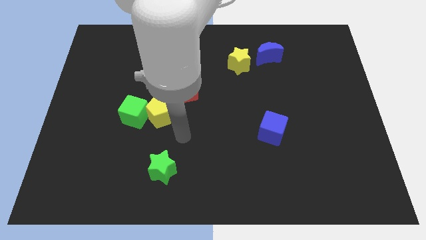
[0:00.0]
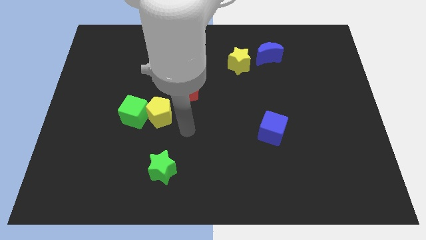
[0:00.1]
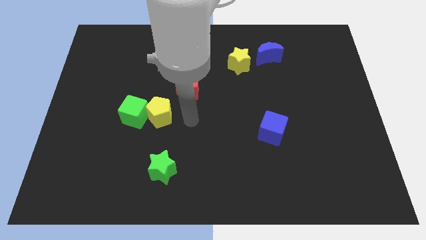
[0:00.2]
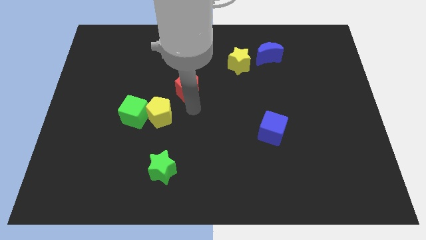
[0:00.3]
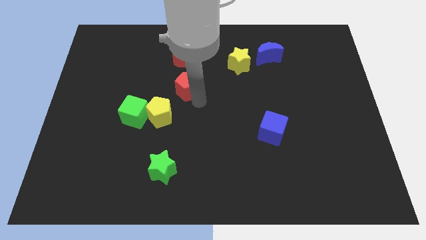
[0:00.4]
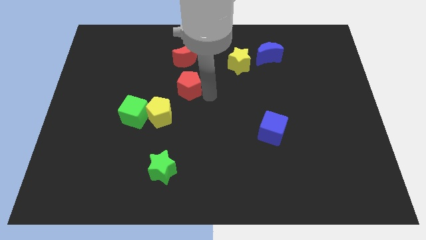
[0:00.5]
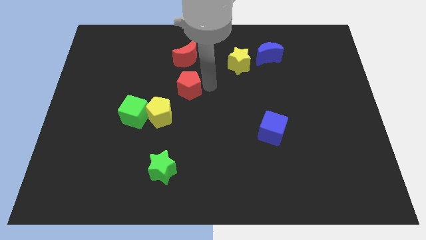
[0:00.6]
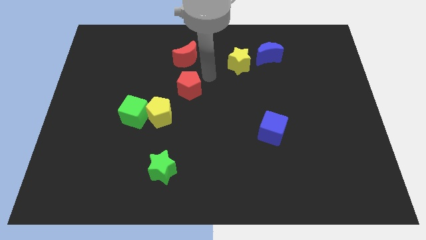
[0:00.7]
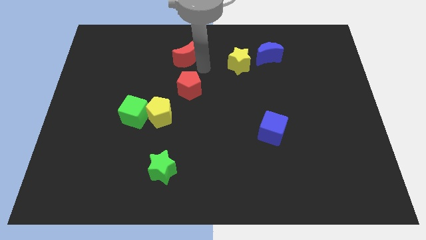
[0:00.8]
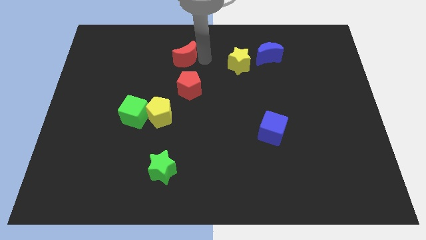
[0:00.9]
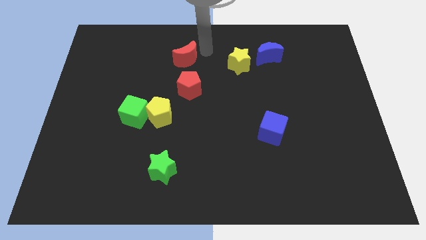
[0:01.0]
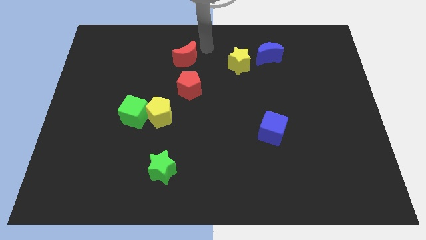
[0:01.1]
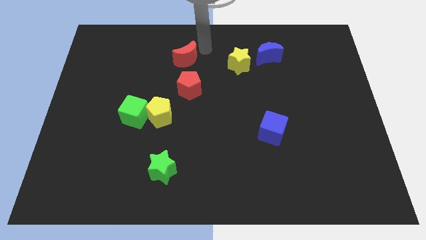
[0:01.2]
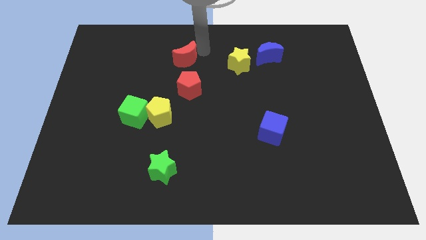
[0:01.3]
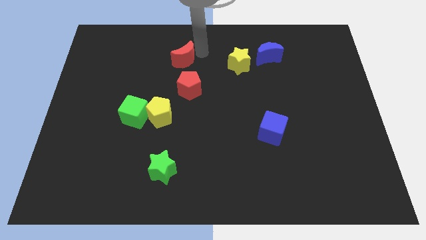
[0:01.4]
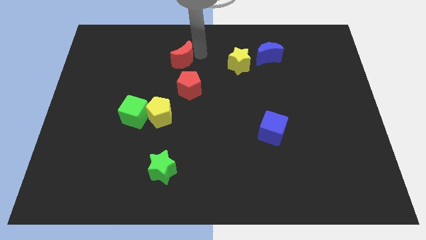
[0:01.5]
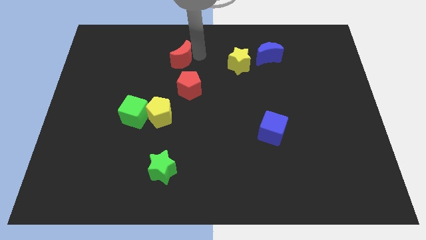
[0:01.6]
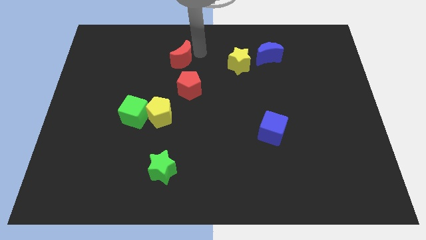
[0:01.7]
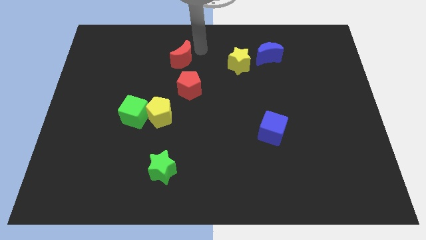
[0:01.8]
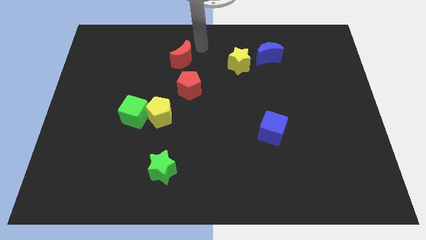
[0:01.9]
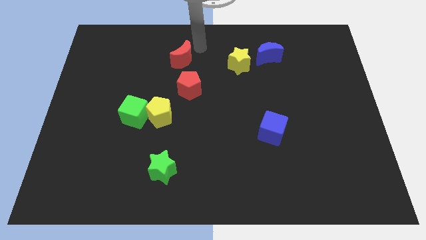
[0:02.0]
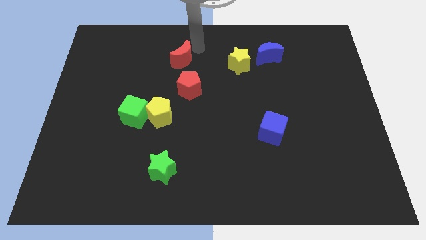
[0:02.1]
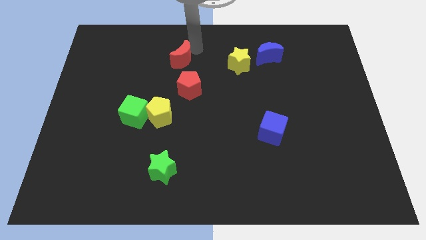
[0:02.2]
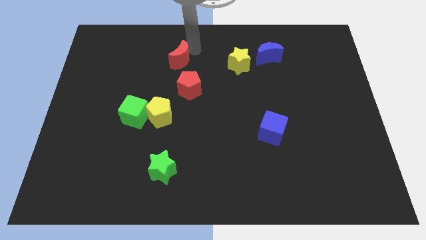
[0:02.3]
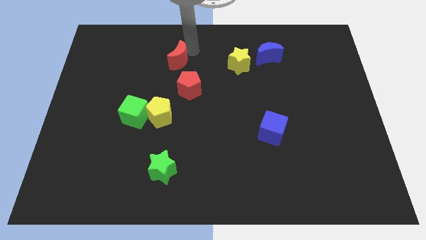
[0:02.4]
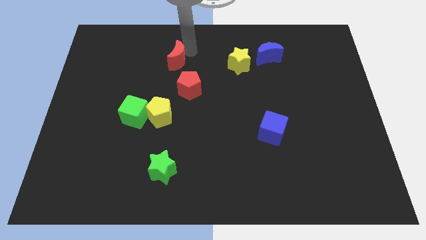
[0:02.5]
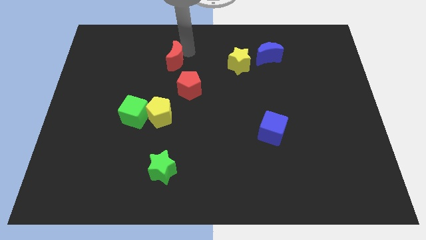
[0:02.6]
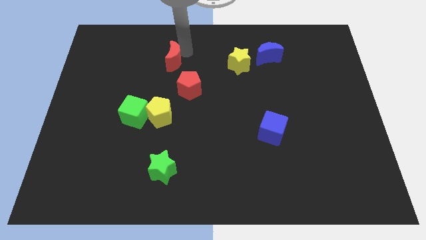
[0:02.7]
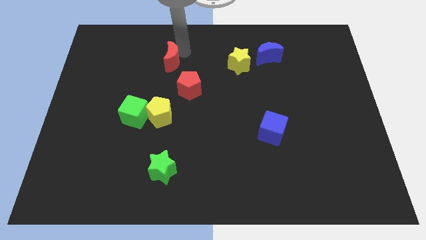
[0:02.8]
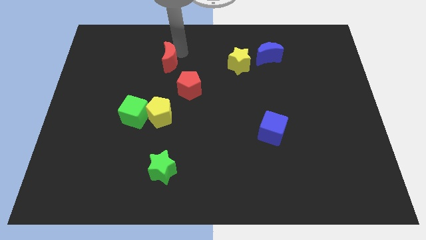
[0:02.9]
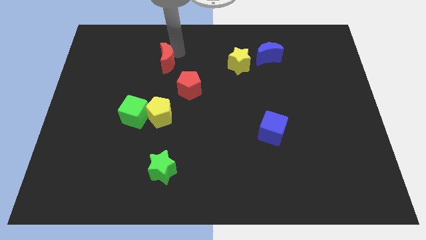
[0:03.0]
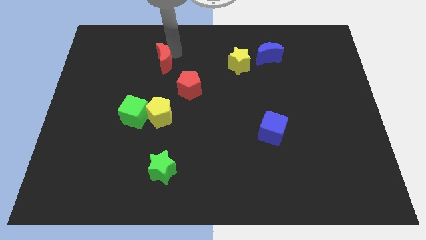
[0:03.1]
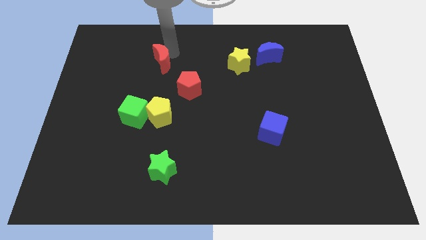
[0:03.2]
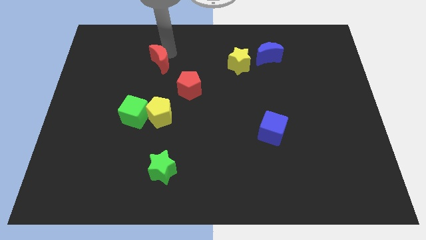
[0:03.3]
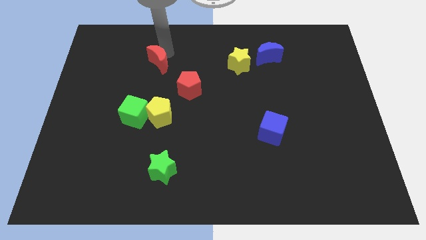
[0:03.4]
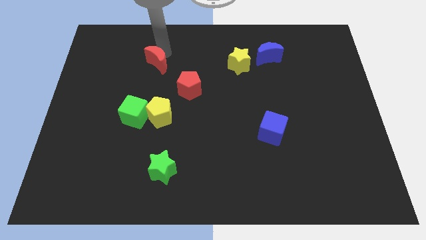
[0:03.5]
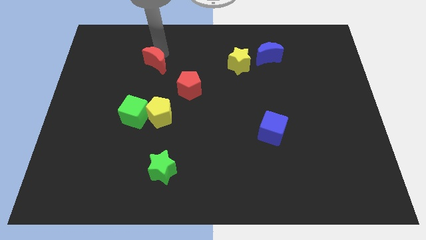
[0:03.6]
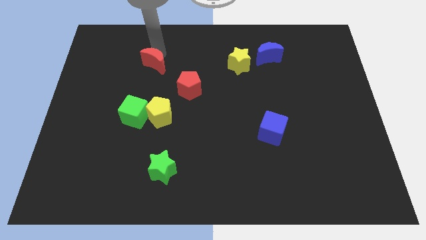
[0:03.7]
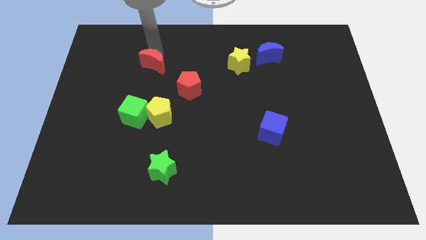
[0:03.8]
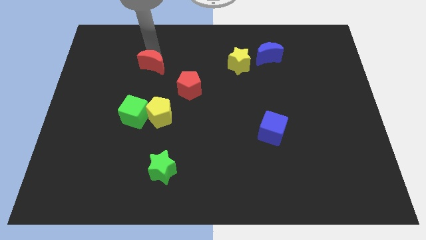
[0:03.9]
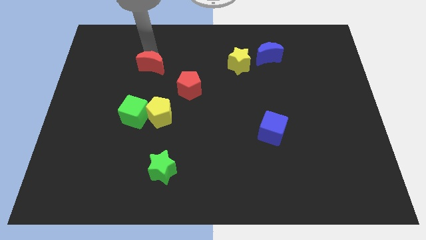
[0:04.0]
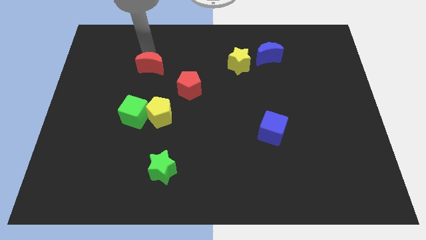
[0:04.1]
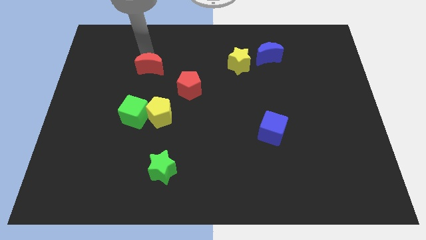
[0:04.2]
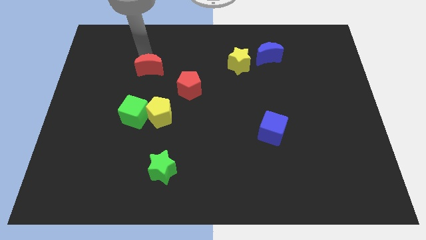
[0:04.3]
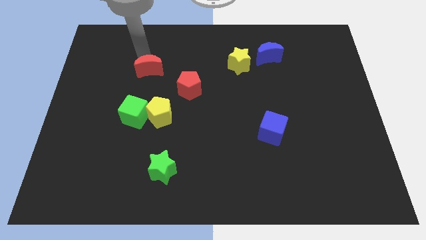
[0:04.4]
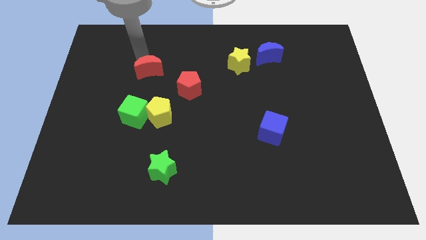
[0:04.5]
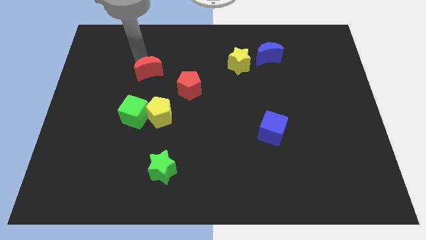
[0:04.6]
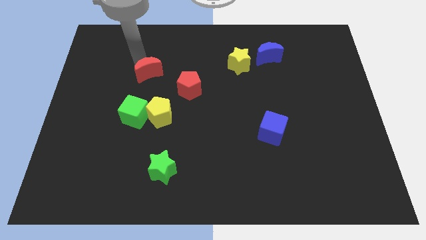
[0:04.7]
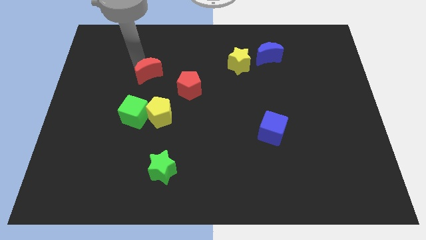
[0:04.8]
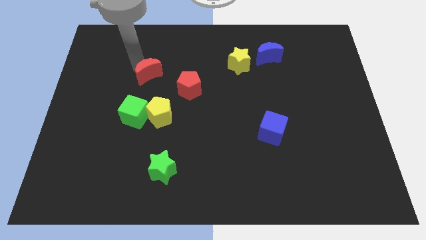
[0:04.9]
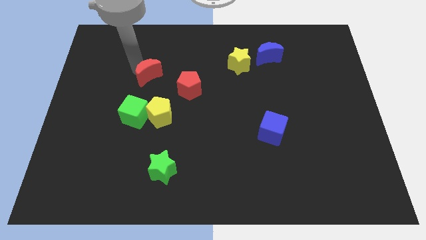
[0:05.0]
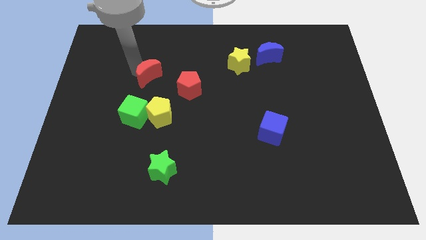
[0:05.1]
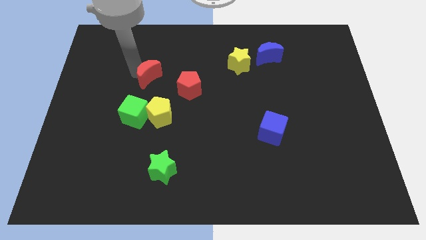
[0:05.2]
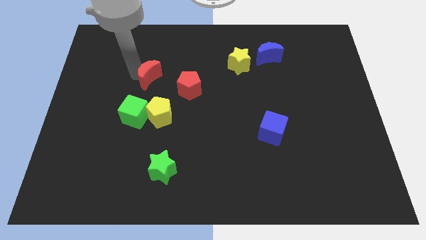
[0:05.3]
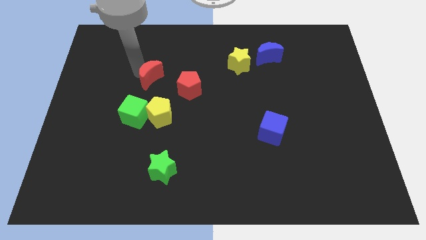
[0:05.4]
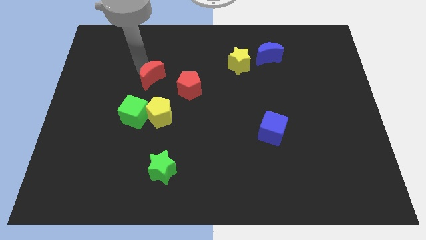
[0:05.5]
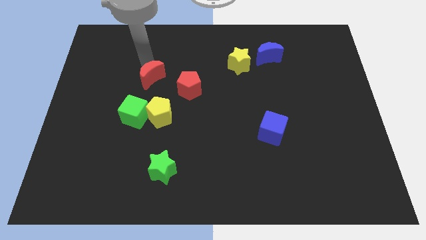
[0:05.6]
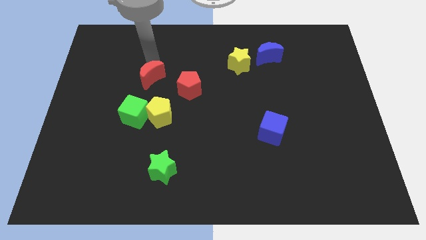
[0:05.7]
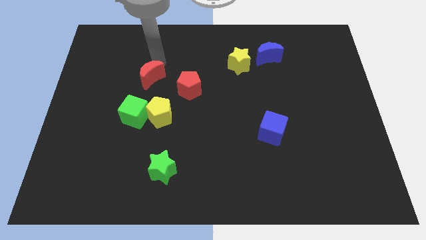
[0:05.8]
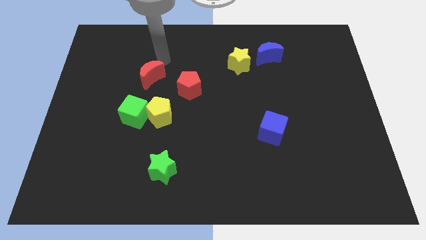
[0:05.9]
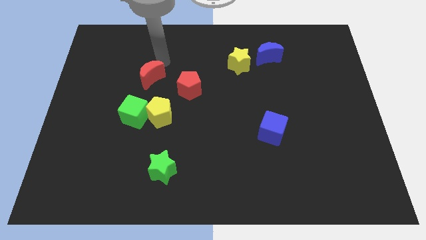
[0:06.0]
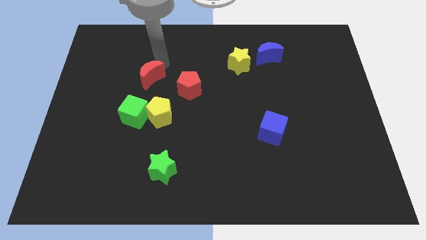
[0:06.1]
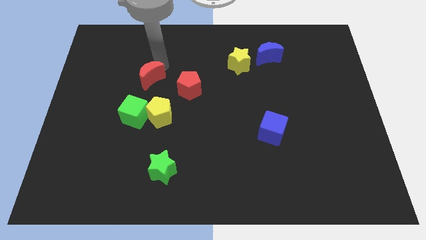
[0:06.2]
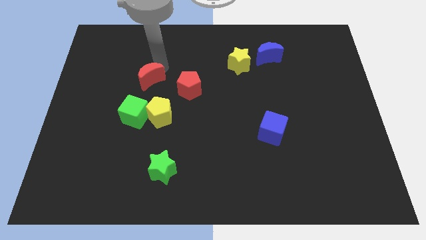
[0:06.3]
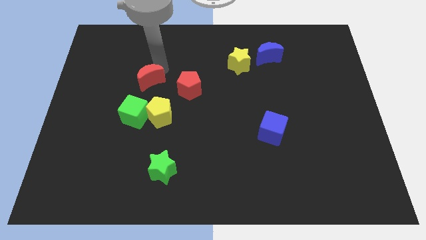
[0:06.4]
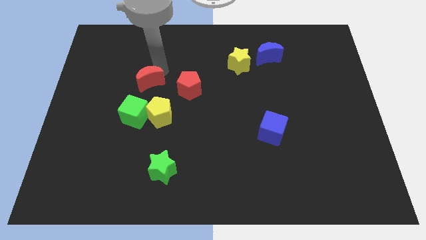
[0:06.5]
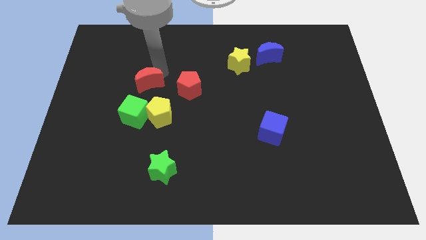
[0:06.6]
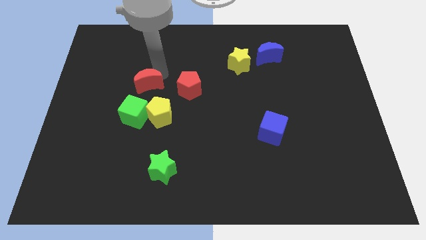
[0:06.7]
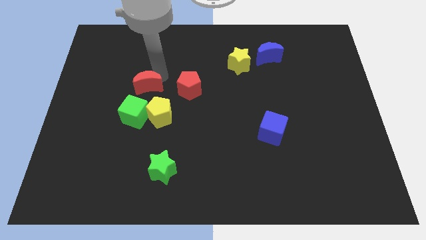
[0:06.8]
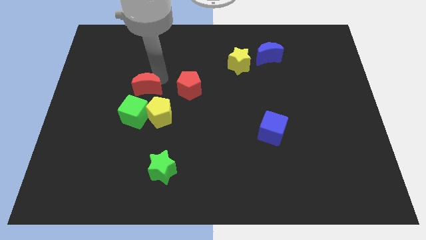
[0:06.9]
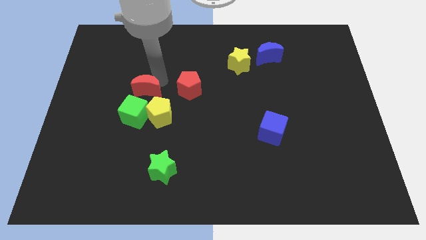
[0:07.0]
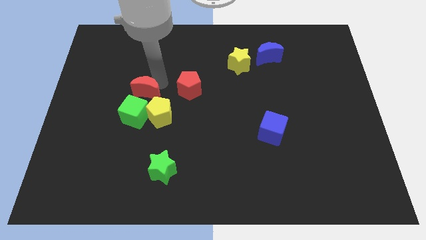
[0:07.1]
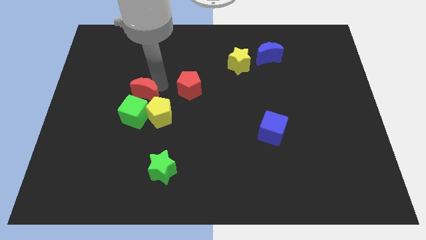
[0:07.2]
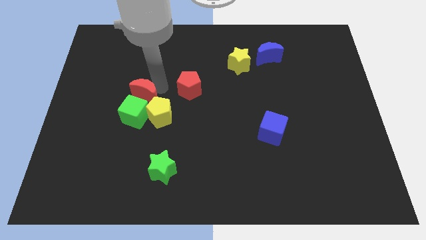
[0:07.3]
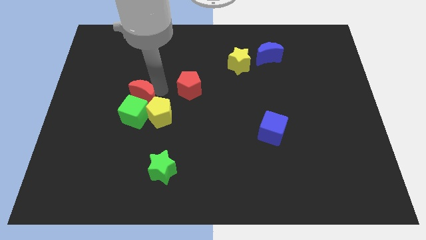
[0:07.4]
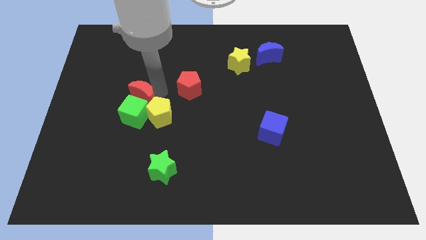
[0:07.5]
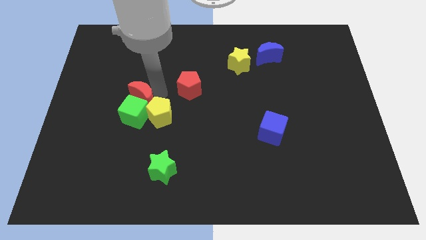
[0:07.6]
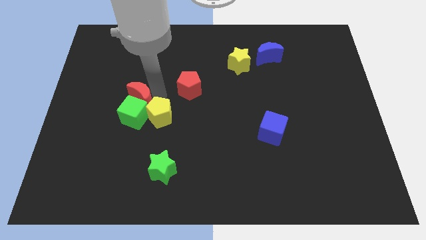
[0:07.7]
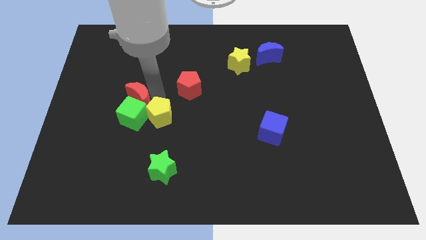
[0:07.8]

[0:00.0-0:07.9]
slide the red moon to the left of the yellow pentagon
